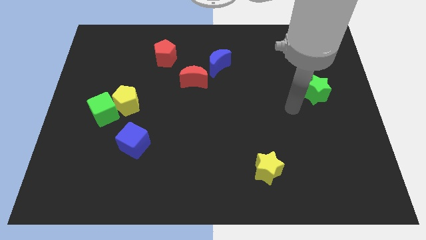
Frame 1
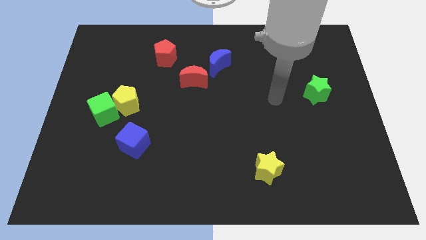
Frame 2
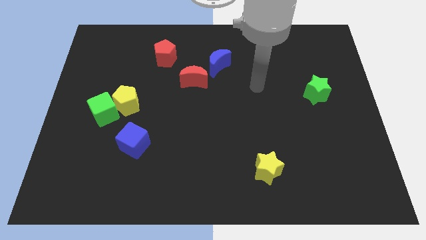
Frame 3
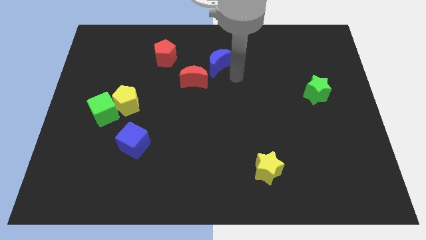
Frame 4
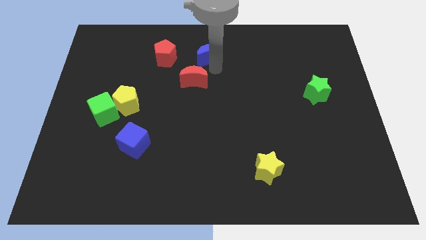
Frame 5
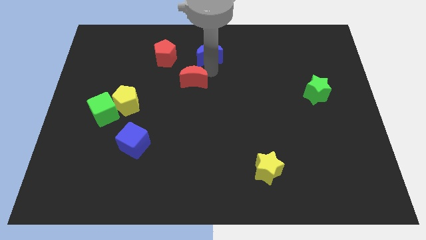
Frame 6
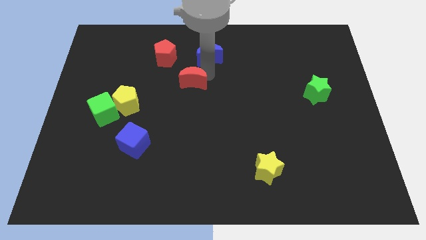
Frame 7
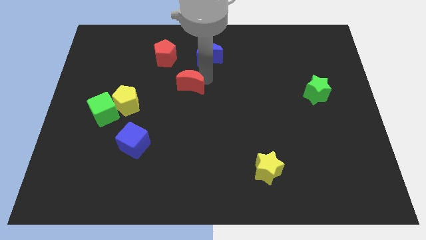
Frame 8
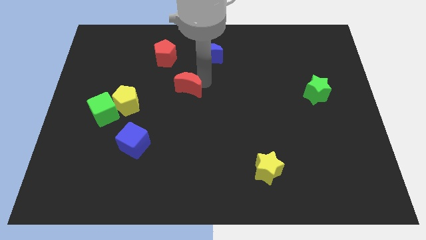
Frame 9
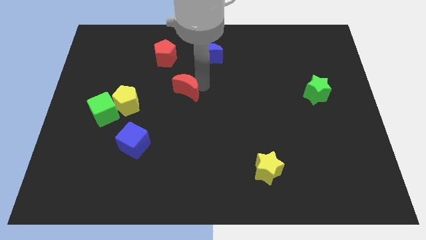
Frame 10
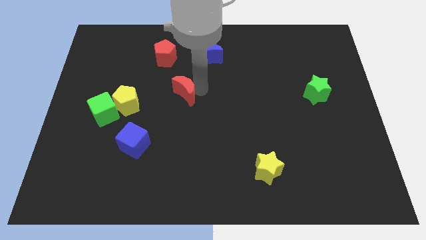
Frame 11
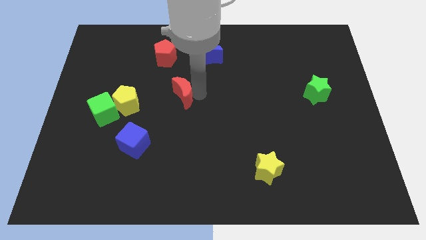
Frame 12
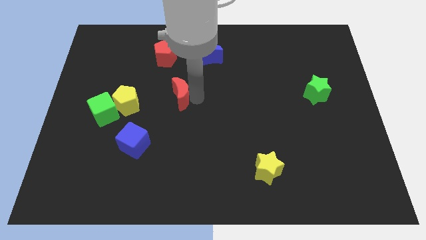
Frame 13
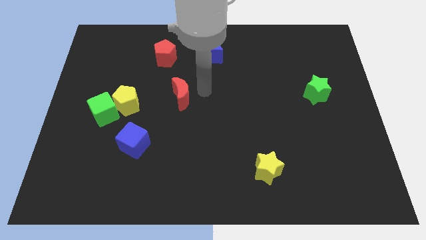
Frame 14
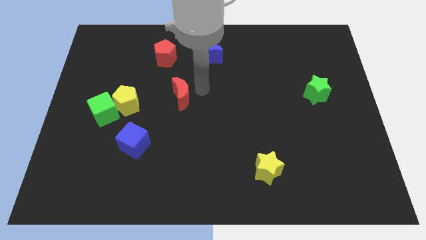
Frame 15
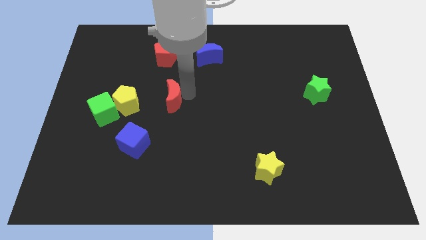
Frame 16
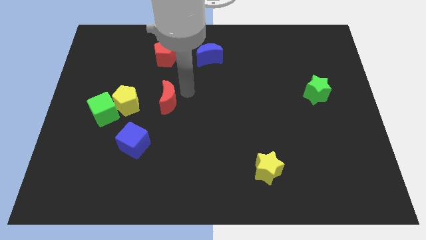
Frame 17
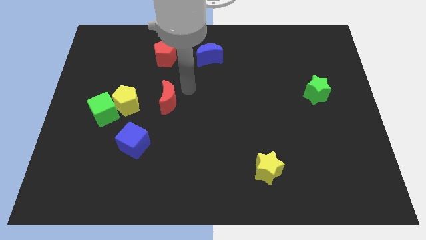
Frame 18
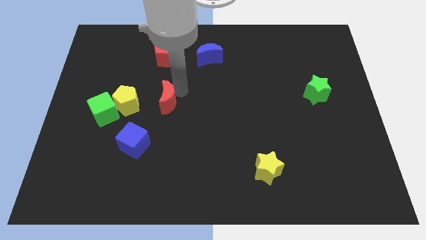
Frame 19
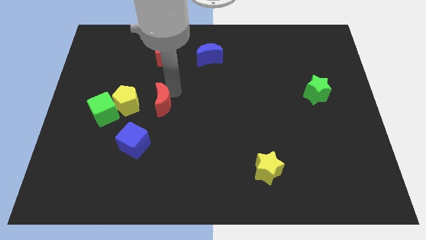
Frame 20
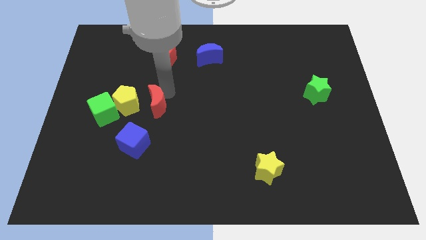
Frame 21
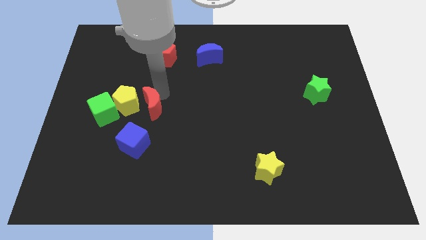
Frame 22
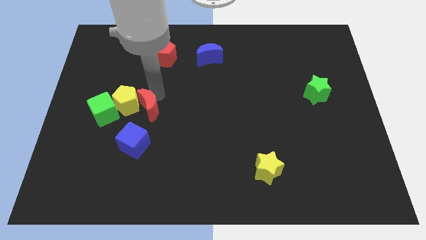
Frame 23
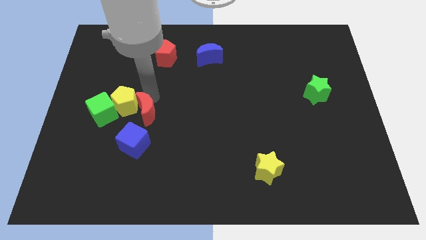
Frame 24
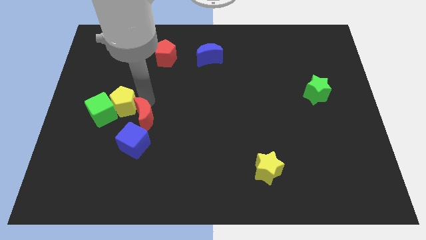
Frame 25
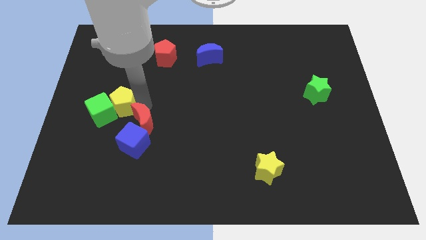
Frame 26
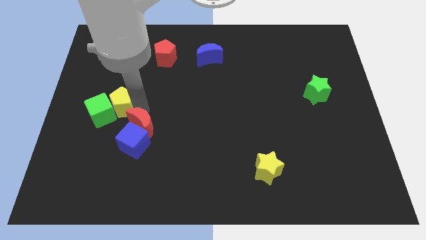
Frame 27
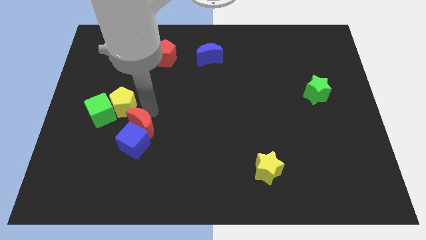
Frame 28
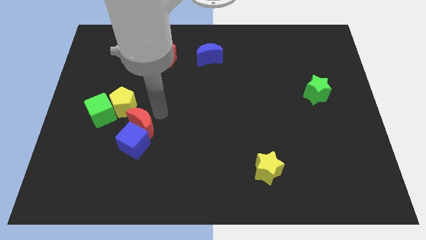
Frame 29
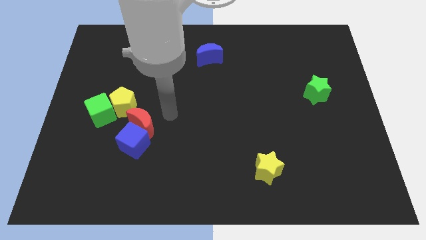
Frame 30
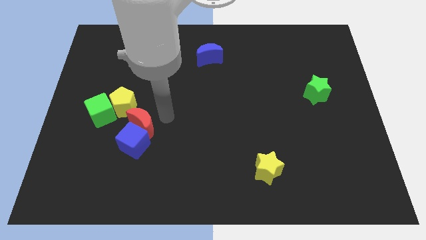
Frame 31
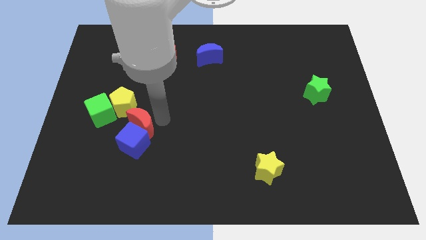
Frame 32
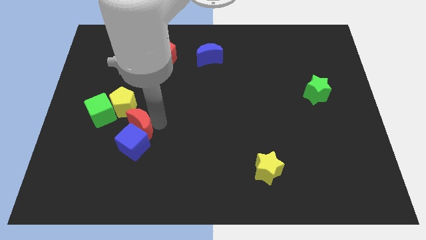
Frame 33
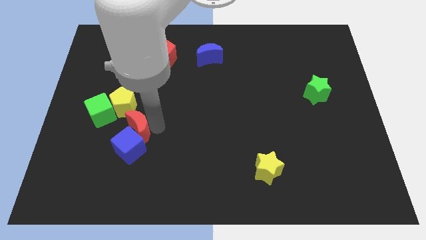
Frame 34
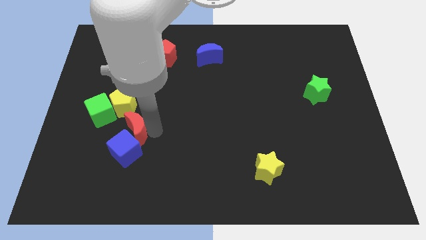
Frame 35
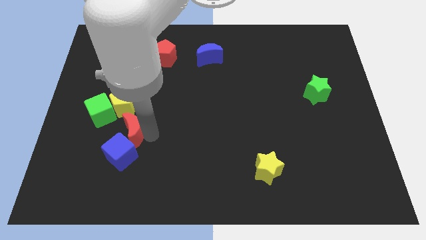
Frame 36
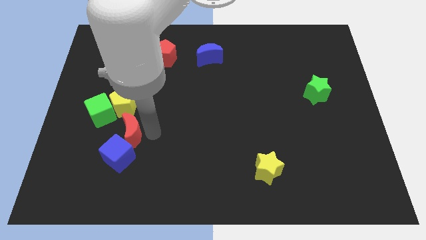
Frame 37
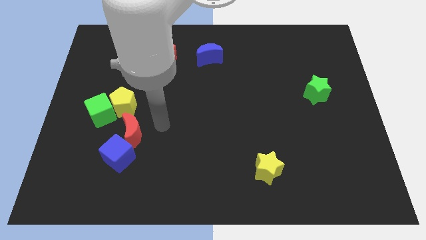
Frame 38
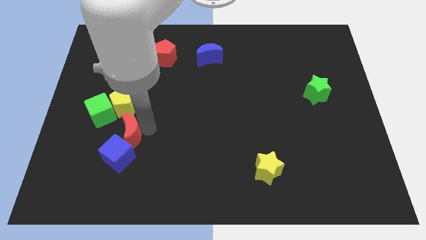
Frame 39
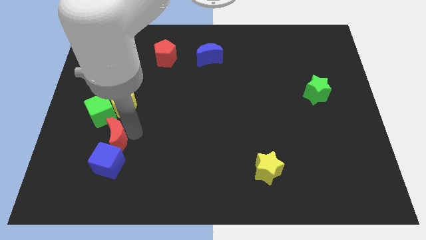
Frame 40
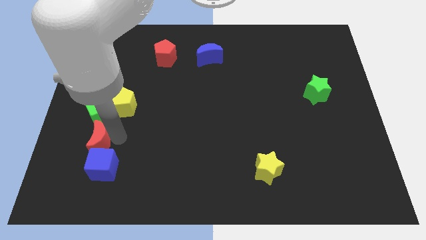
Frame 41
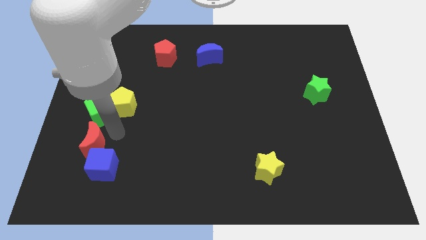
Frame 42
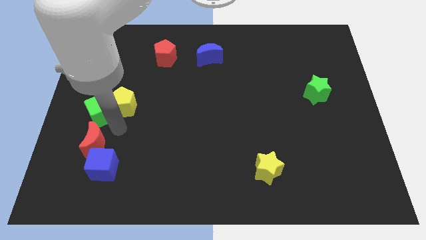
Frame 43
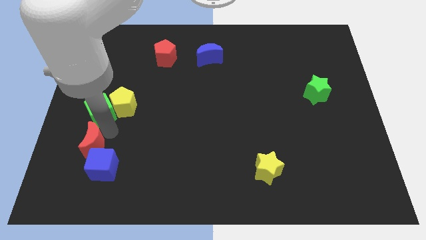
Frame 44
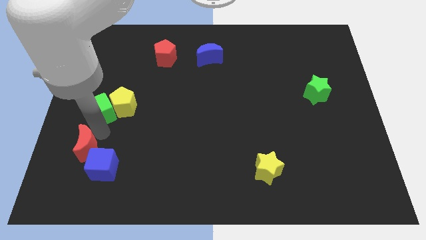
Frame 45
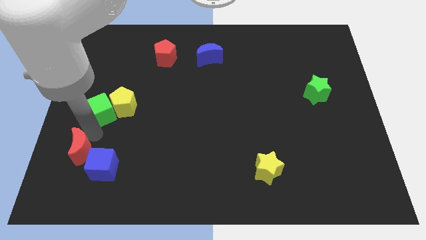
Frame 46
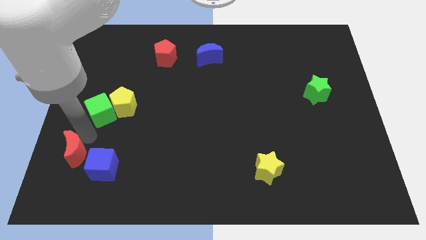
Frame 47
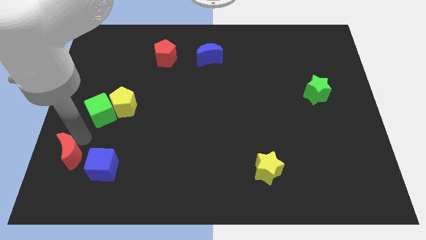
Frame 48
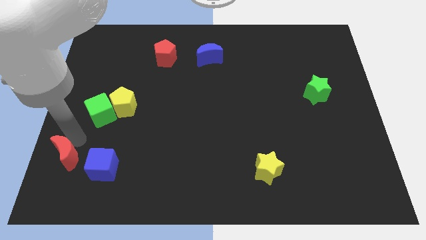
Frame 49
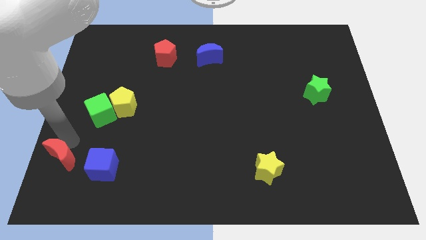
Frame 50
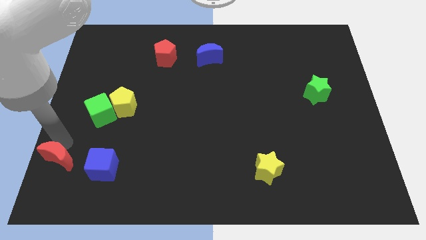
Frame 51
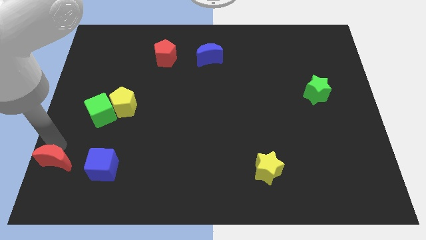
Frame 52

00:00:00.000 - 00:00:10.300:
put the red moon to the bottom left of the board

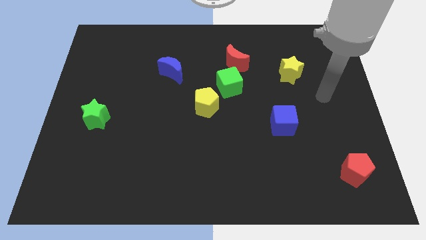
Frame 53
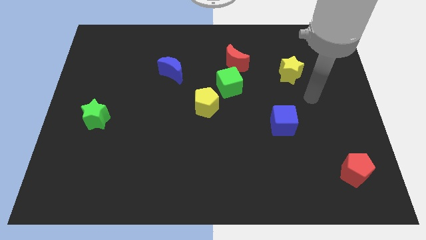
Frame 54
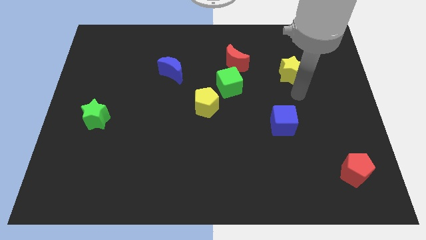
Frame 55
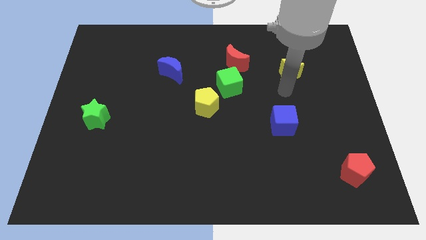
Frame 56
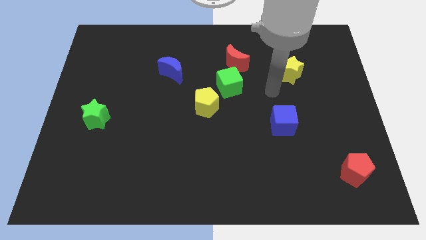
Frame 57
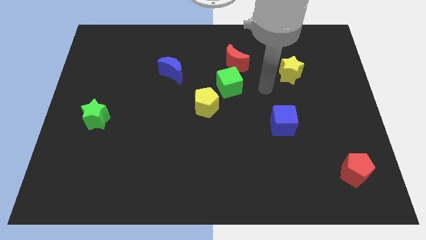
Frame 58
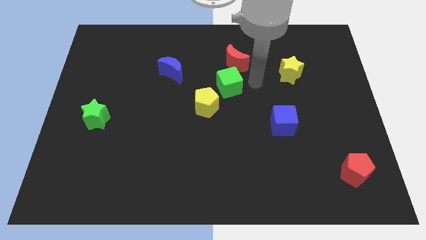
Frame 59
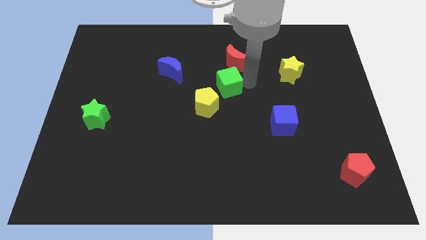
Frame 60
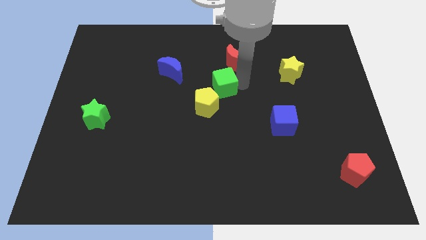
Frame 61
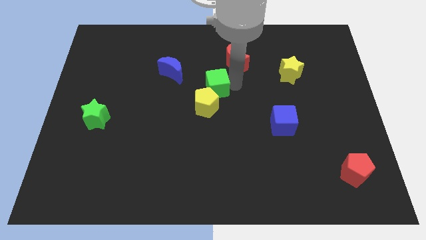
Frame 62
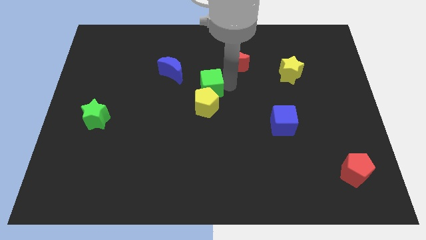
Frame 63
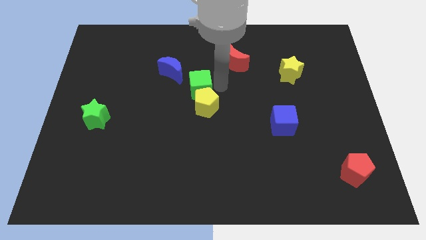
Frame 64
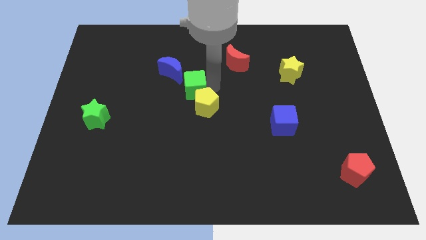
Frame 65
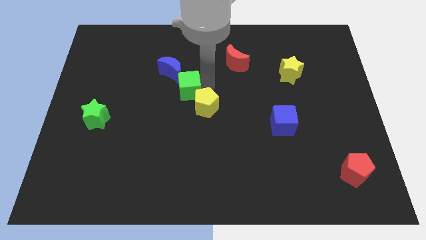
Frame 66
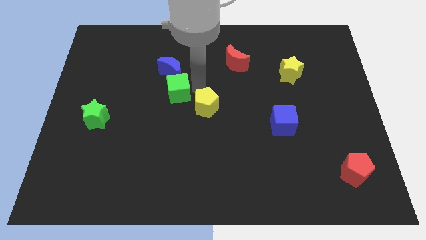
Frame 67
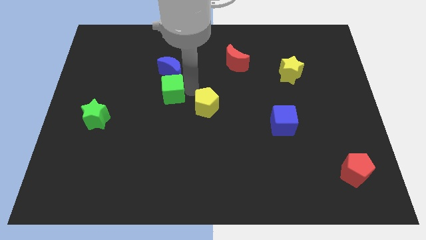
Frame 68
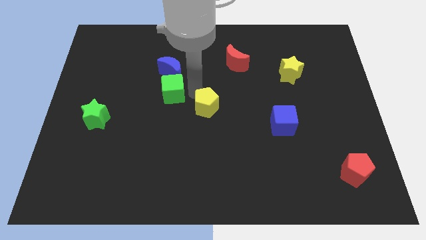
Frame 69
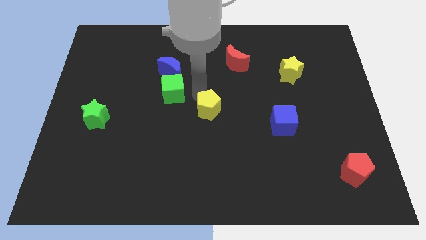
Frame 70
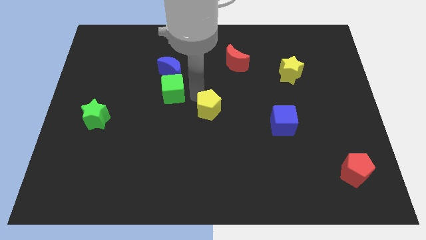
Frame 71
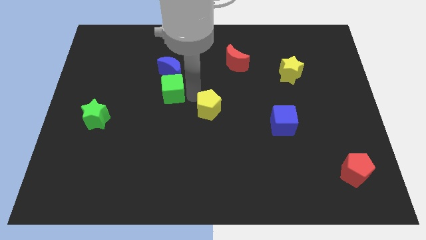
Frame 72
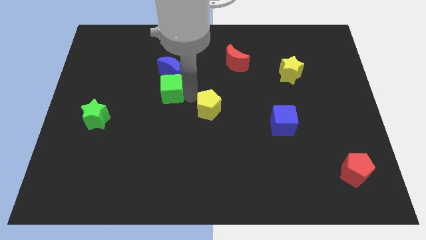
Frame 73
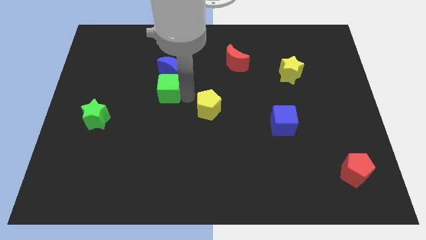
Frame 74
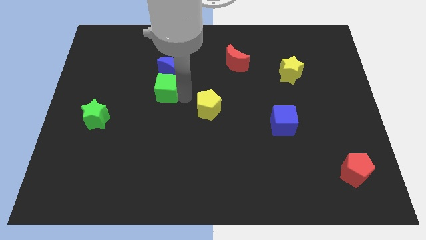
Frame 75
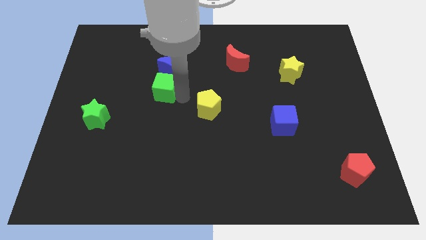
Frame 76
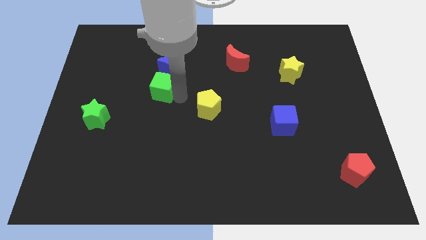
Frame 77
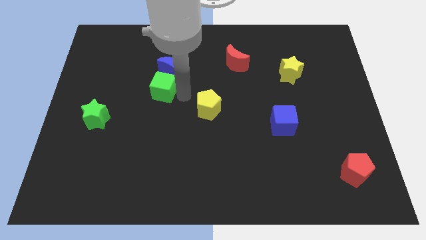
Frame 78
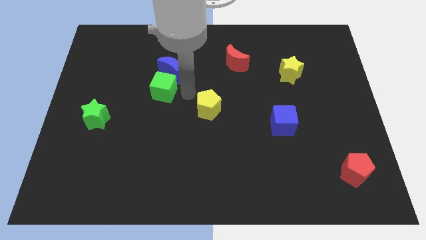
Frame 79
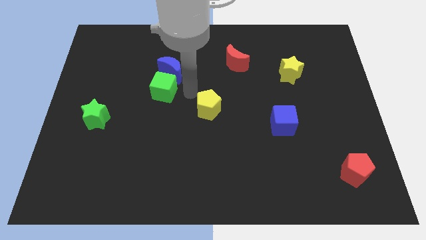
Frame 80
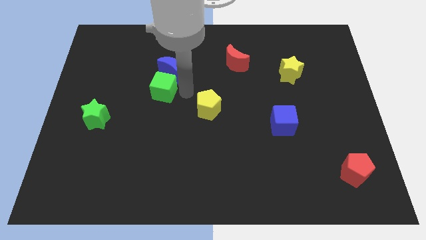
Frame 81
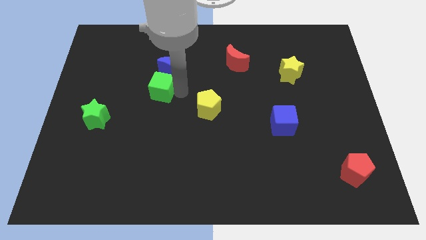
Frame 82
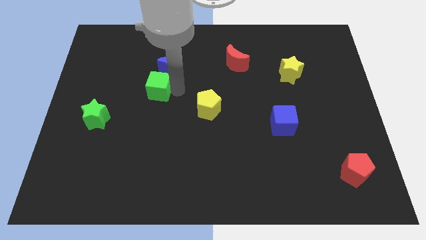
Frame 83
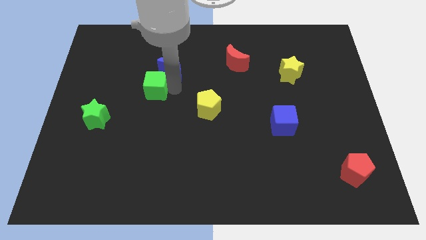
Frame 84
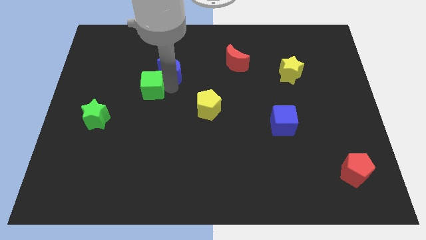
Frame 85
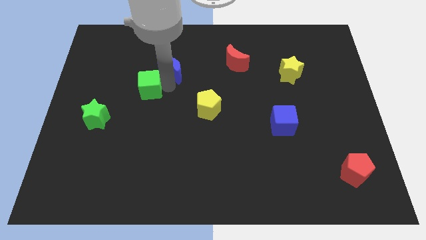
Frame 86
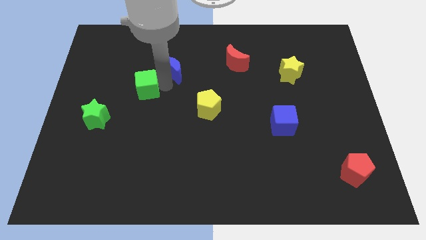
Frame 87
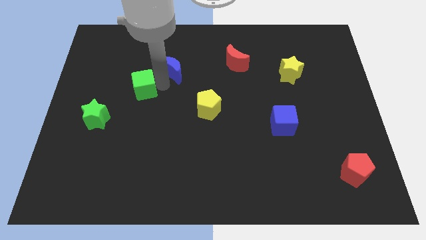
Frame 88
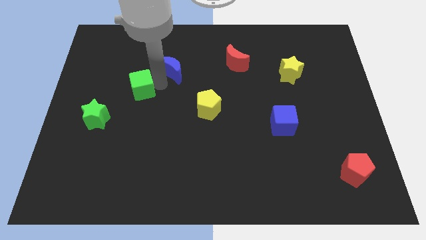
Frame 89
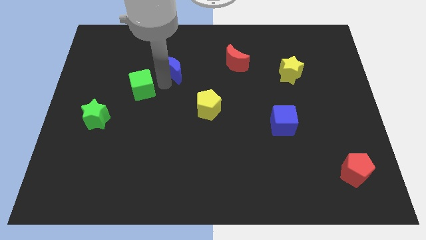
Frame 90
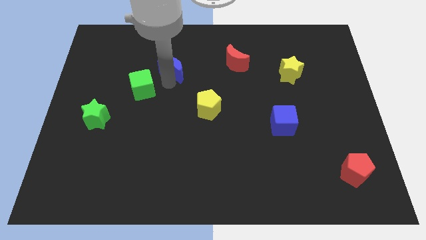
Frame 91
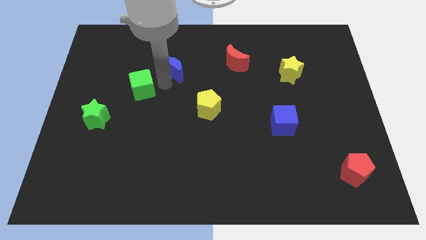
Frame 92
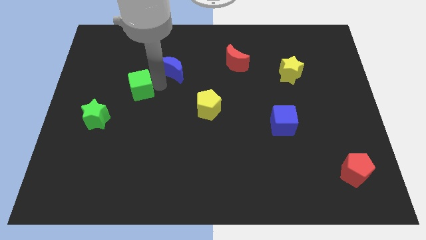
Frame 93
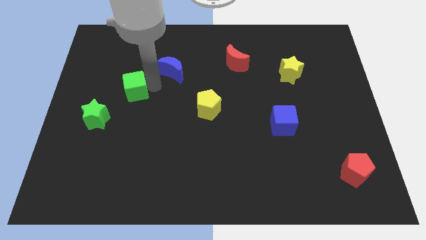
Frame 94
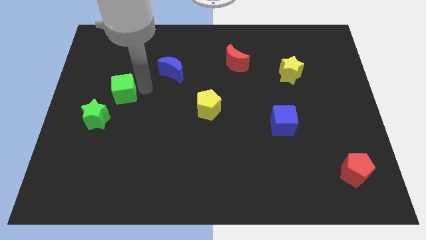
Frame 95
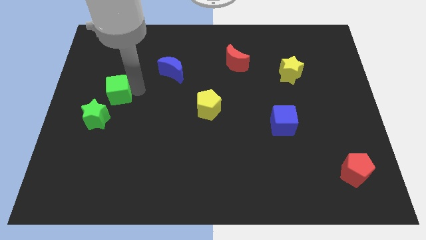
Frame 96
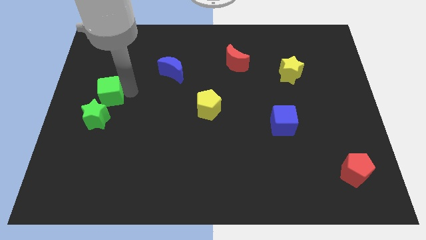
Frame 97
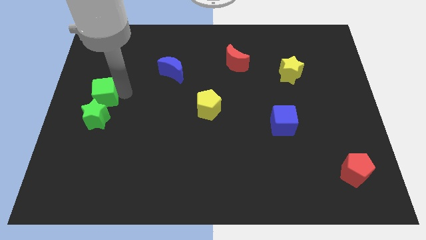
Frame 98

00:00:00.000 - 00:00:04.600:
push the green cube to the left side of the board
